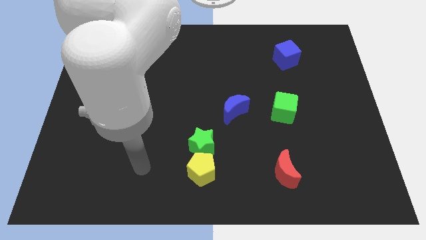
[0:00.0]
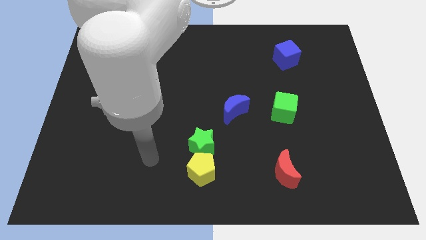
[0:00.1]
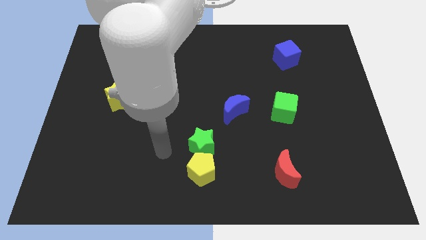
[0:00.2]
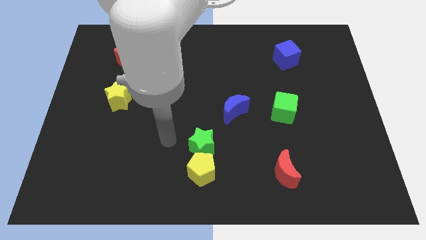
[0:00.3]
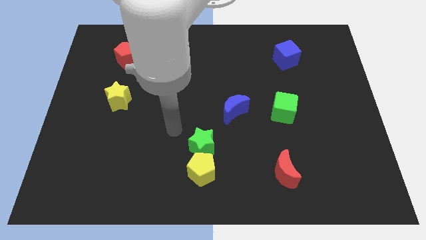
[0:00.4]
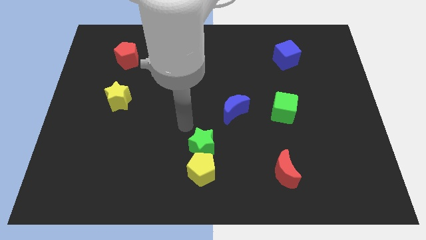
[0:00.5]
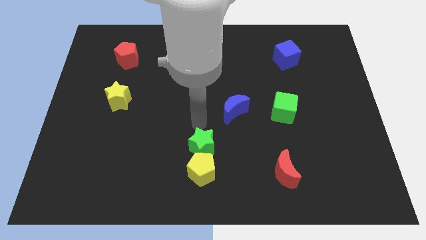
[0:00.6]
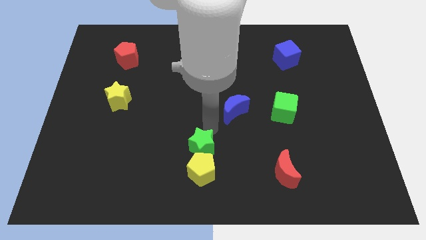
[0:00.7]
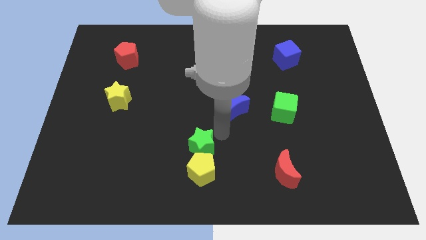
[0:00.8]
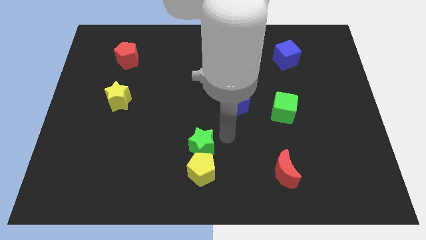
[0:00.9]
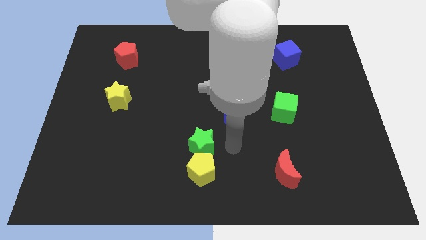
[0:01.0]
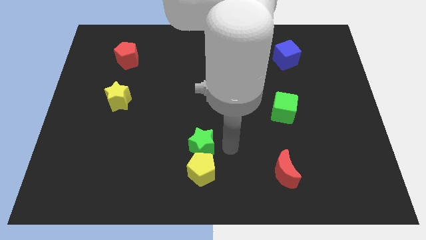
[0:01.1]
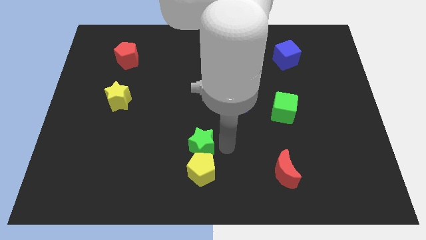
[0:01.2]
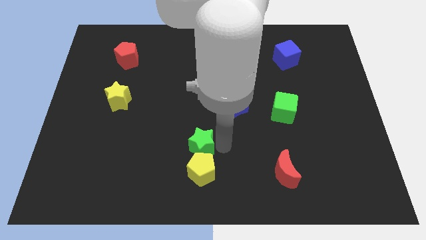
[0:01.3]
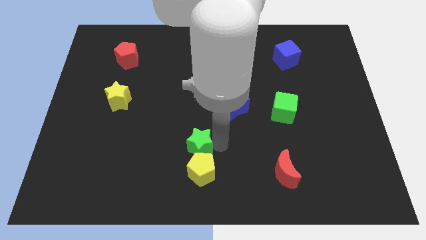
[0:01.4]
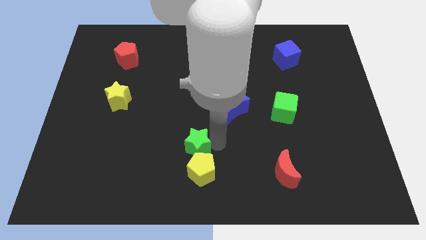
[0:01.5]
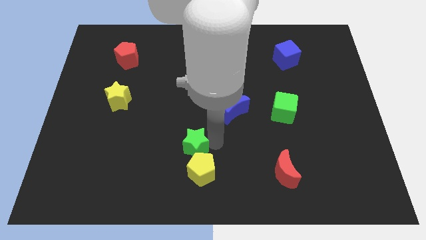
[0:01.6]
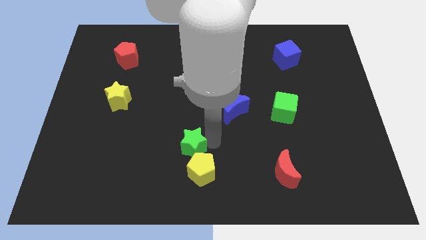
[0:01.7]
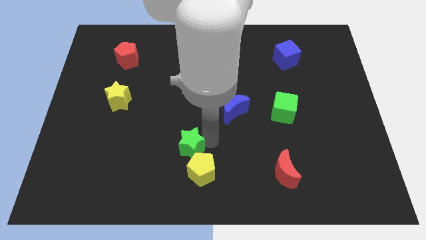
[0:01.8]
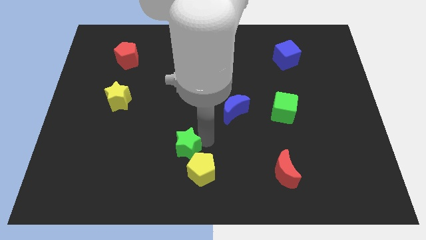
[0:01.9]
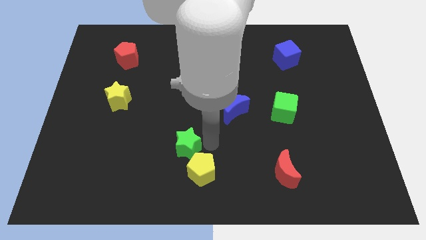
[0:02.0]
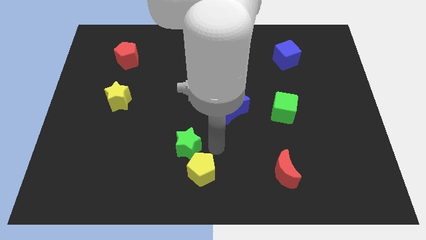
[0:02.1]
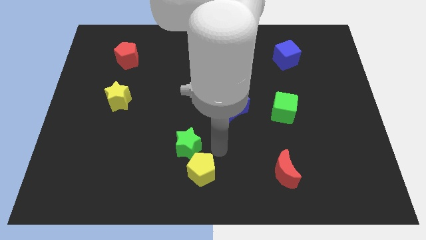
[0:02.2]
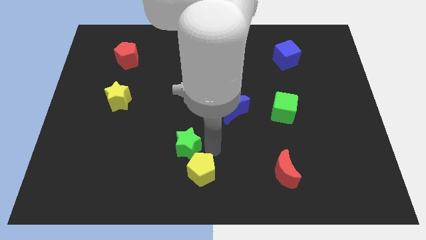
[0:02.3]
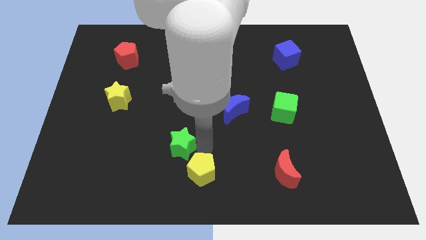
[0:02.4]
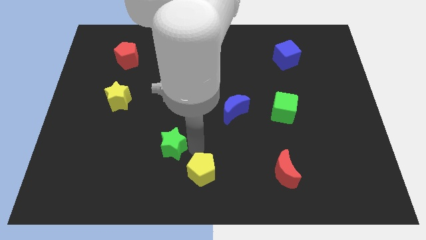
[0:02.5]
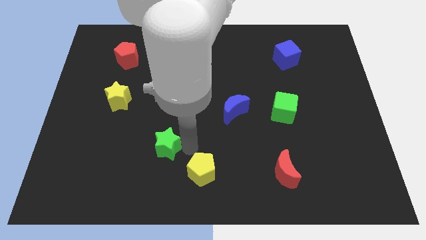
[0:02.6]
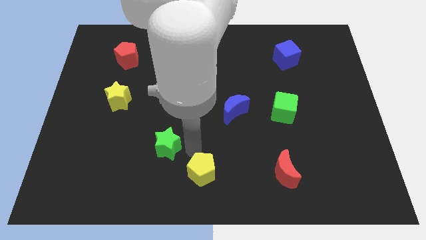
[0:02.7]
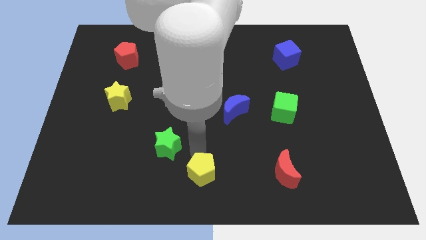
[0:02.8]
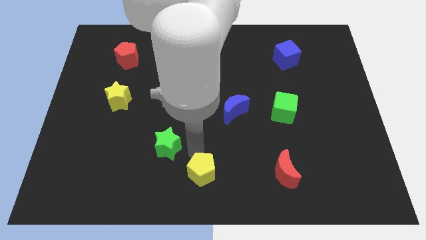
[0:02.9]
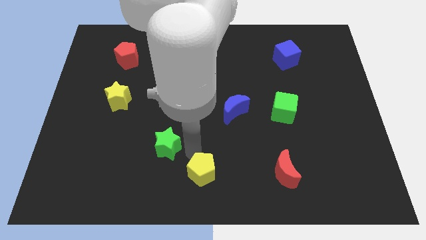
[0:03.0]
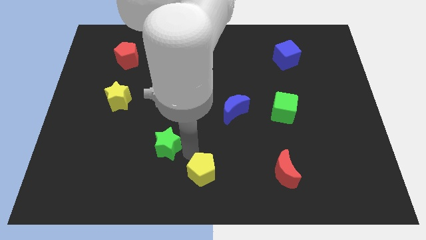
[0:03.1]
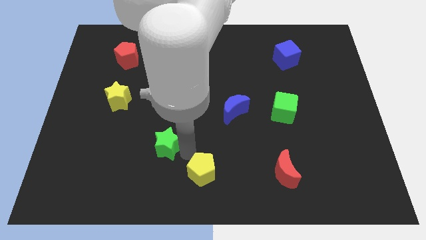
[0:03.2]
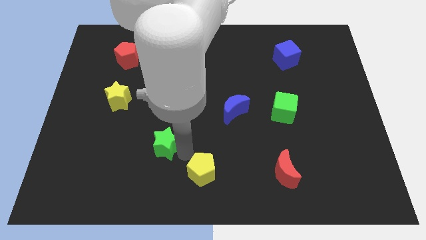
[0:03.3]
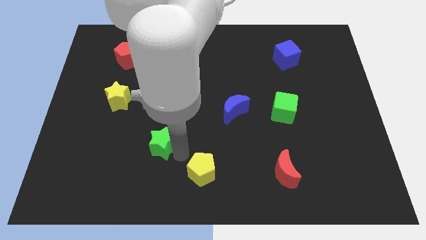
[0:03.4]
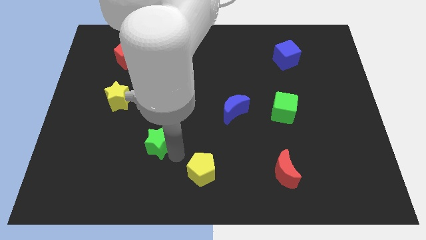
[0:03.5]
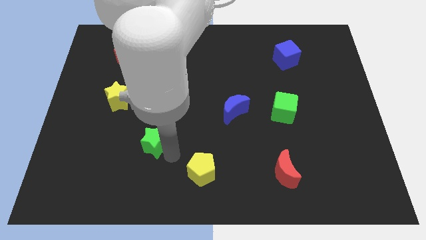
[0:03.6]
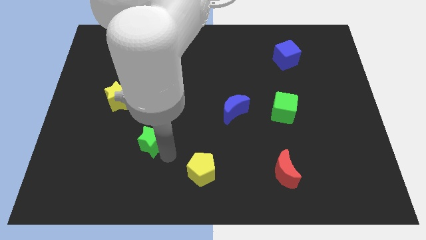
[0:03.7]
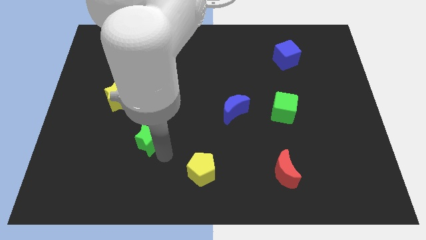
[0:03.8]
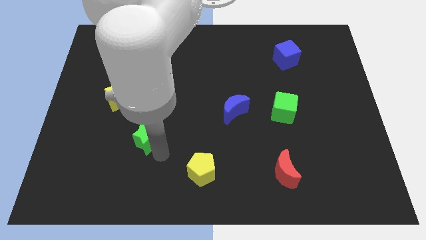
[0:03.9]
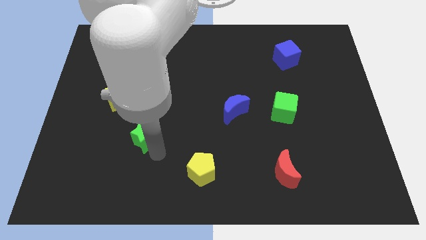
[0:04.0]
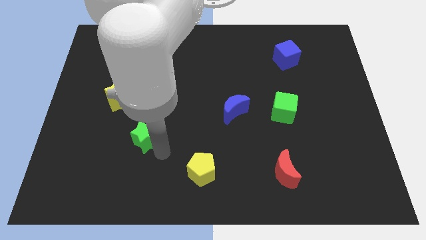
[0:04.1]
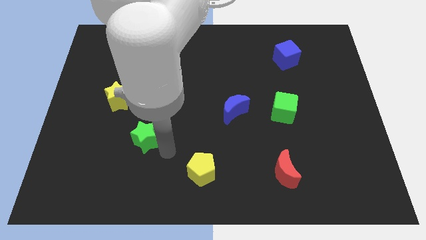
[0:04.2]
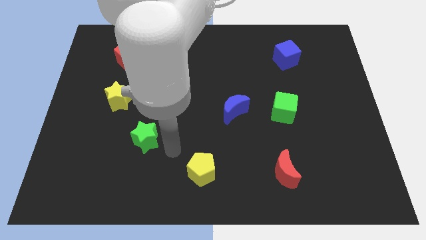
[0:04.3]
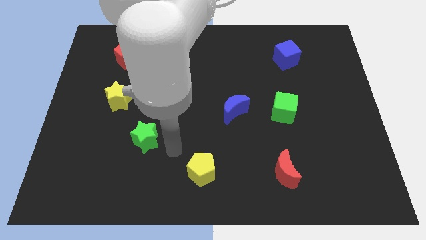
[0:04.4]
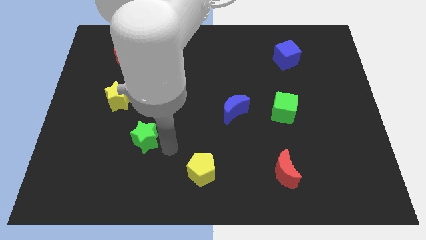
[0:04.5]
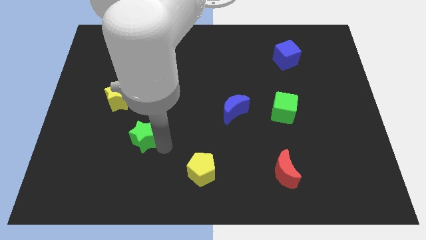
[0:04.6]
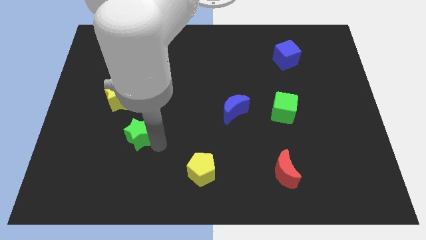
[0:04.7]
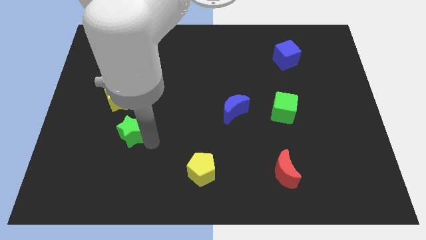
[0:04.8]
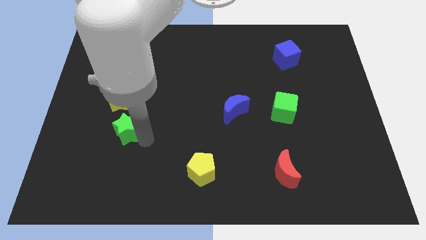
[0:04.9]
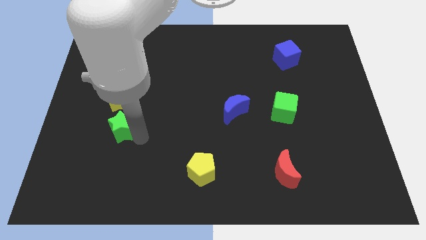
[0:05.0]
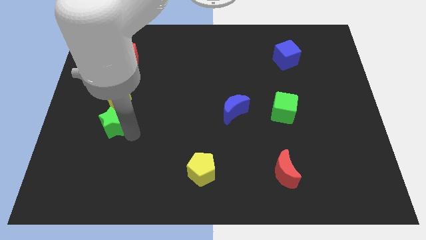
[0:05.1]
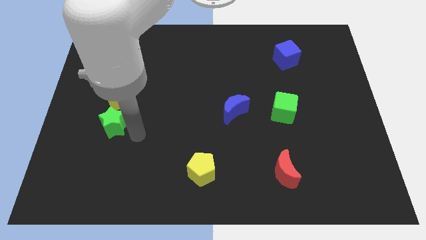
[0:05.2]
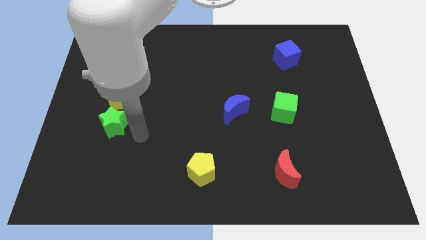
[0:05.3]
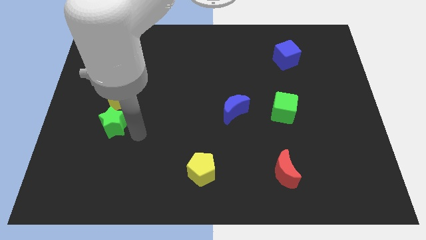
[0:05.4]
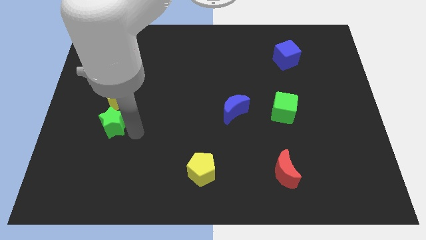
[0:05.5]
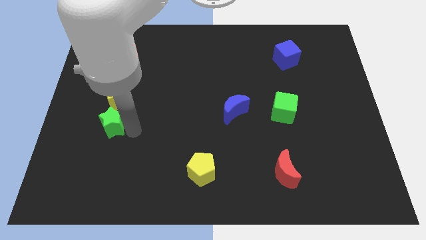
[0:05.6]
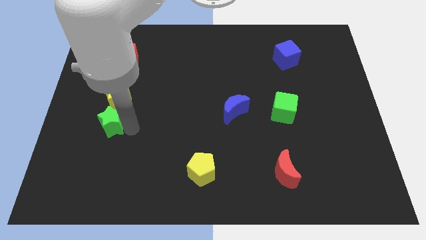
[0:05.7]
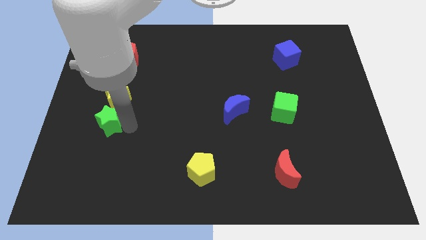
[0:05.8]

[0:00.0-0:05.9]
push the green star to the bottom left of the yellow star

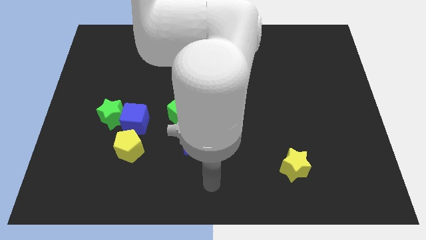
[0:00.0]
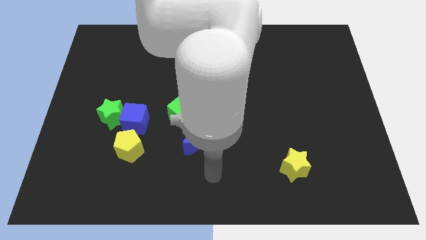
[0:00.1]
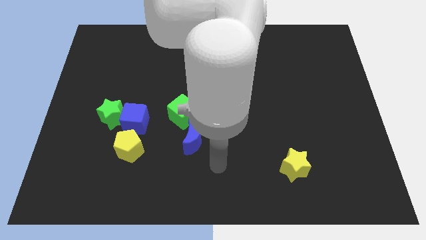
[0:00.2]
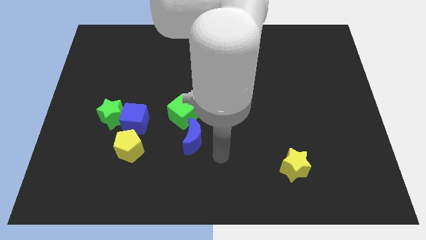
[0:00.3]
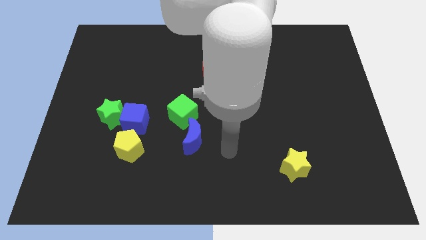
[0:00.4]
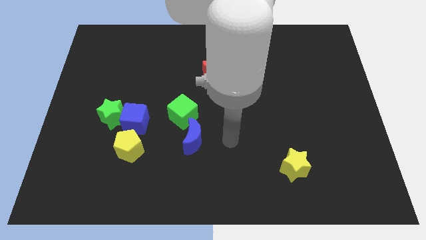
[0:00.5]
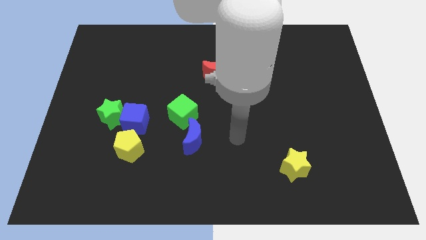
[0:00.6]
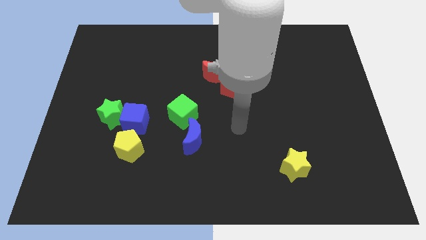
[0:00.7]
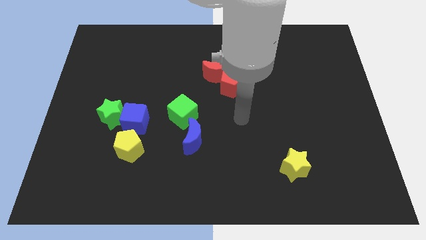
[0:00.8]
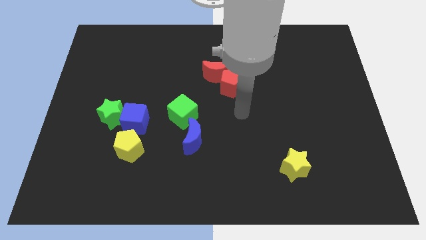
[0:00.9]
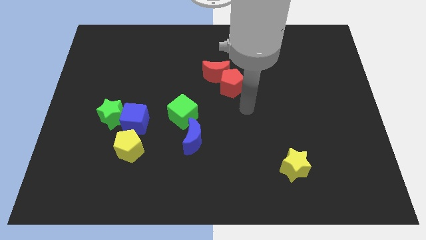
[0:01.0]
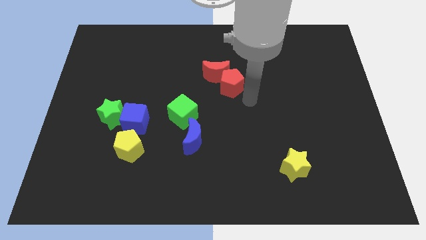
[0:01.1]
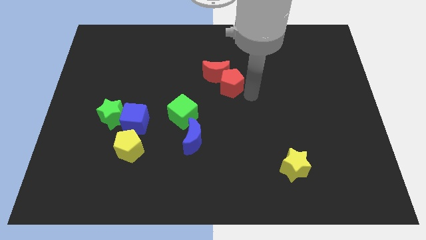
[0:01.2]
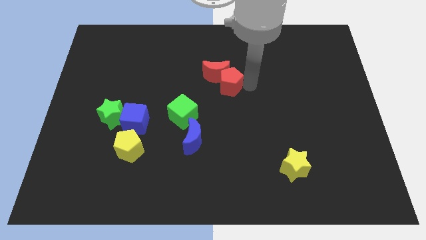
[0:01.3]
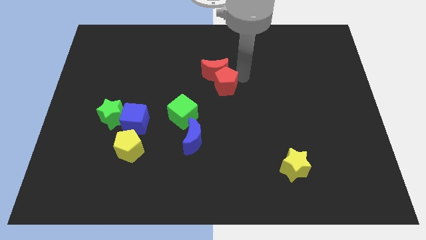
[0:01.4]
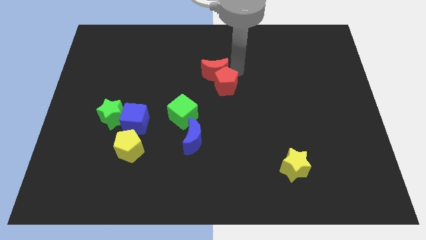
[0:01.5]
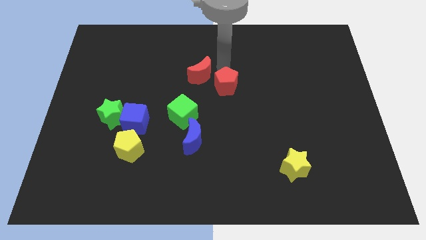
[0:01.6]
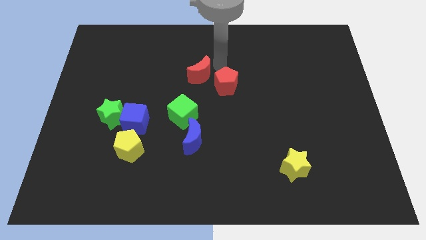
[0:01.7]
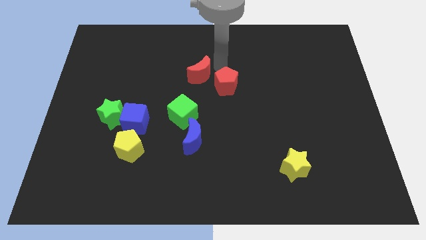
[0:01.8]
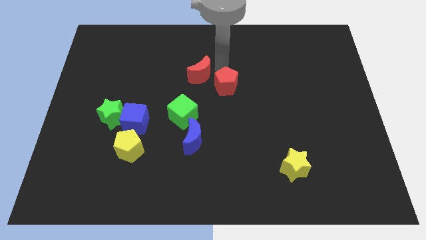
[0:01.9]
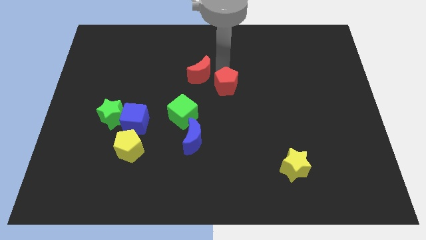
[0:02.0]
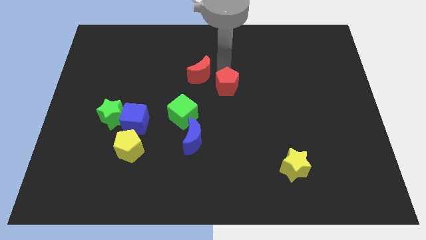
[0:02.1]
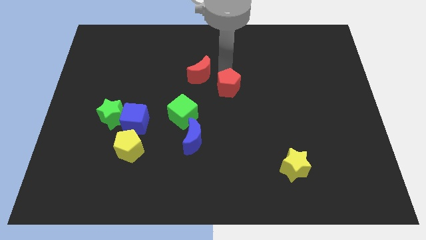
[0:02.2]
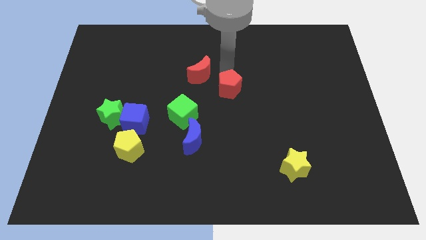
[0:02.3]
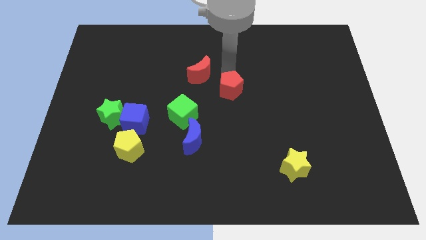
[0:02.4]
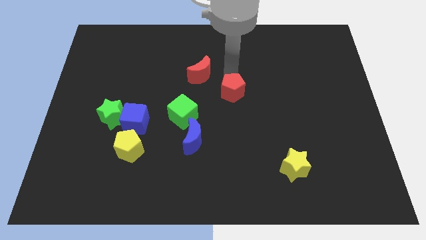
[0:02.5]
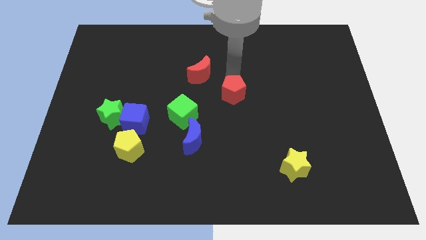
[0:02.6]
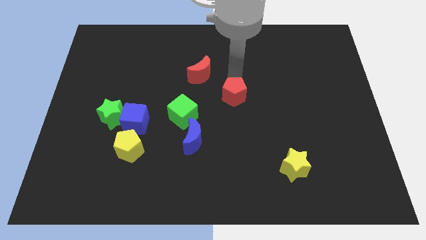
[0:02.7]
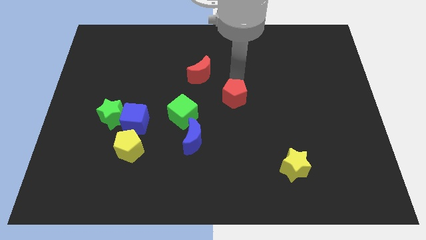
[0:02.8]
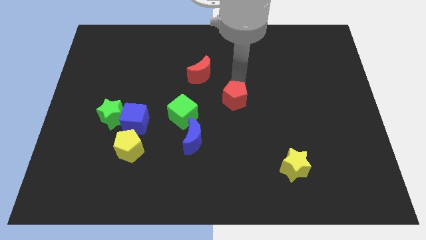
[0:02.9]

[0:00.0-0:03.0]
slide the red pentagon to the right of the green cube
